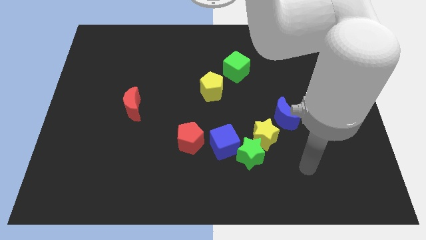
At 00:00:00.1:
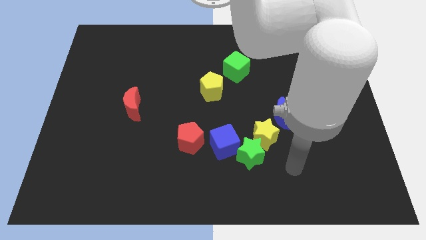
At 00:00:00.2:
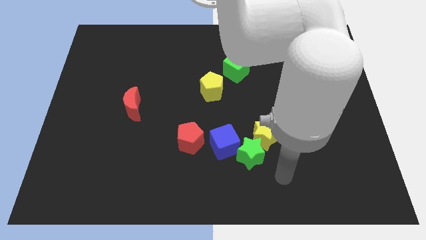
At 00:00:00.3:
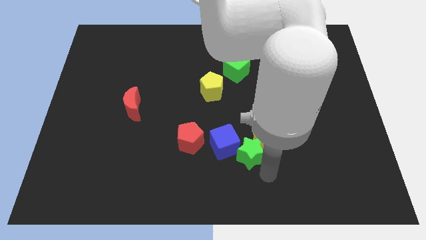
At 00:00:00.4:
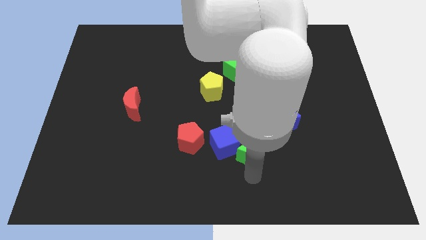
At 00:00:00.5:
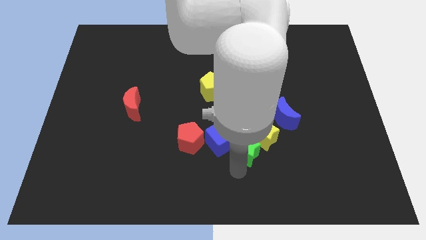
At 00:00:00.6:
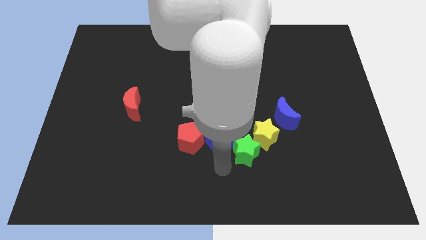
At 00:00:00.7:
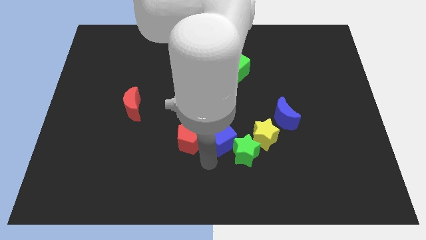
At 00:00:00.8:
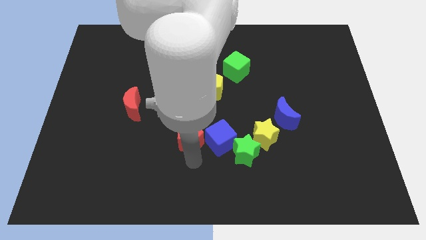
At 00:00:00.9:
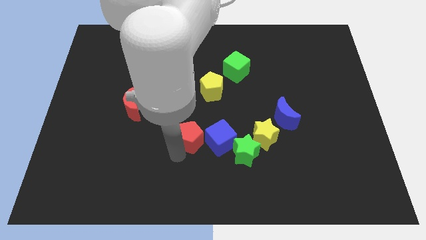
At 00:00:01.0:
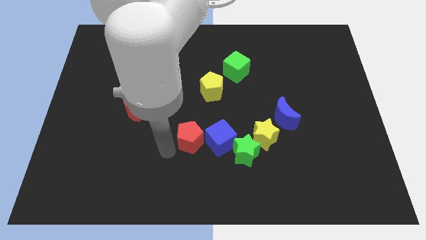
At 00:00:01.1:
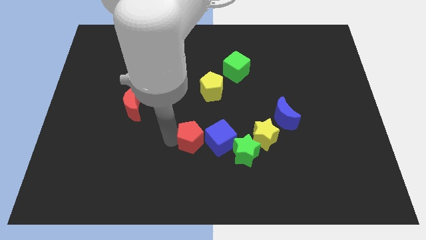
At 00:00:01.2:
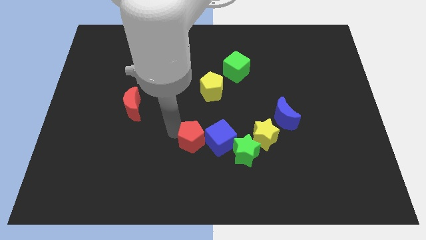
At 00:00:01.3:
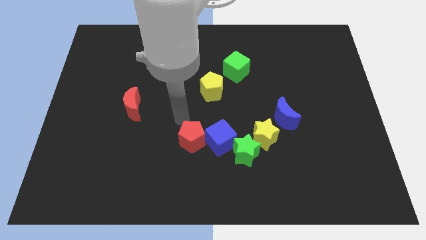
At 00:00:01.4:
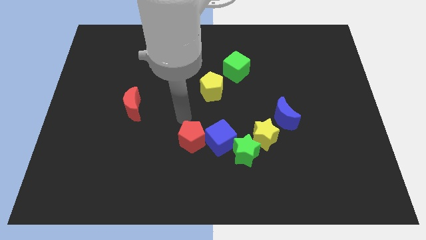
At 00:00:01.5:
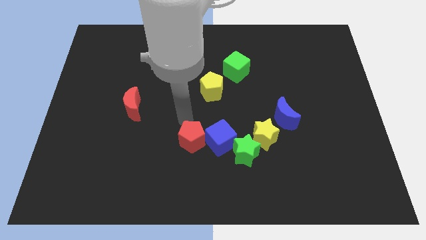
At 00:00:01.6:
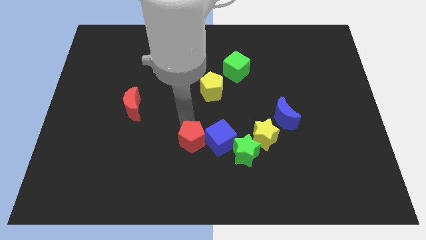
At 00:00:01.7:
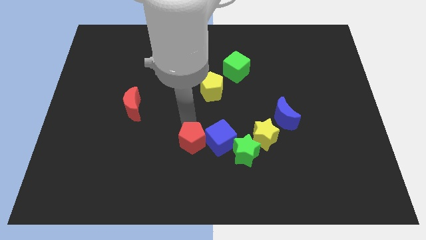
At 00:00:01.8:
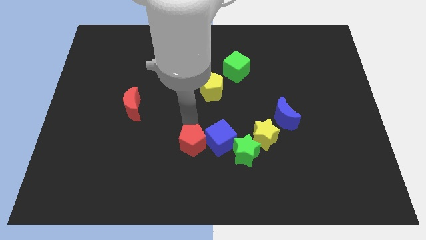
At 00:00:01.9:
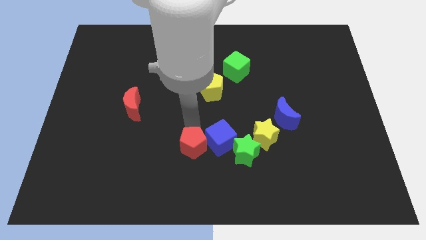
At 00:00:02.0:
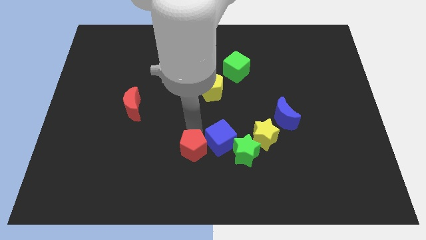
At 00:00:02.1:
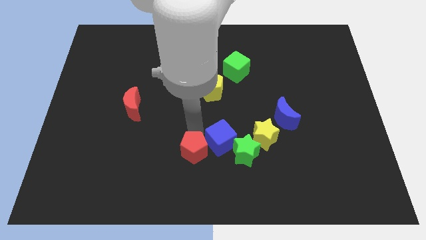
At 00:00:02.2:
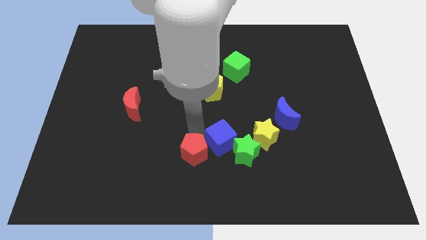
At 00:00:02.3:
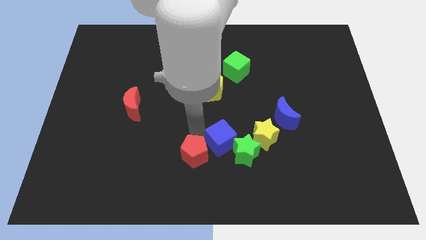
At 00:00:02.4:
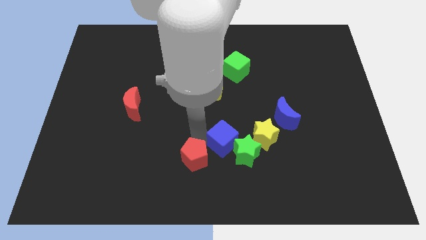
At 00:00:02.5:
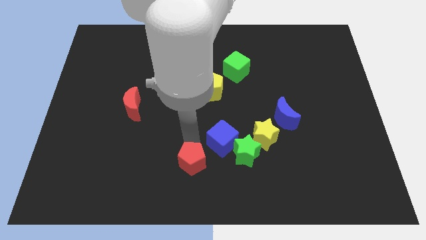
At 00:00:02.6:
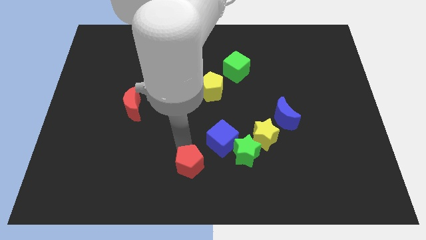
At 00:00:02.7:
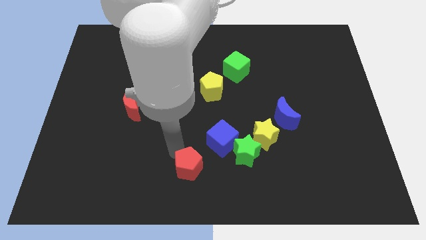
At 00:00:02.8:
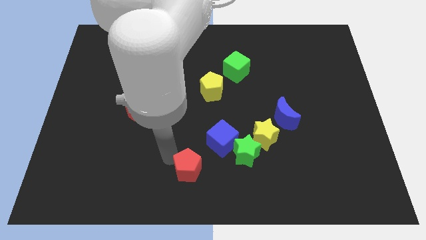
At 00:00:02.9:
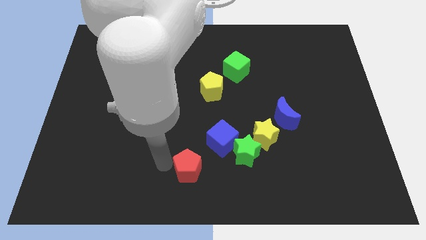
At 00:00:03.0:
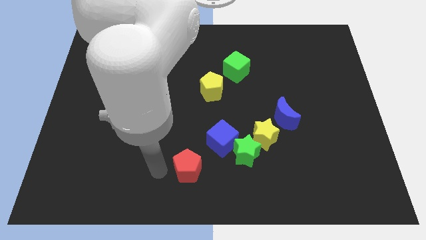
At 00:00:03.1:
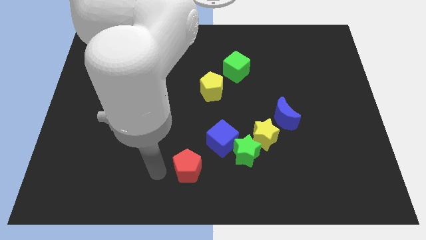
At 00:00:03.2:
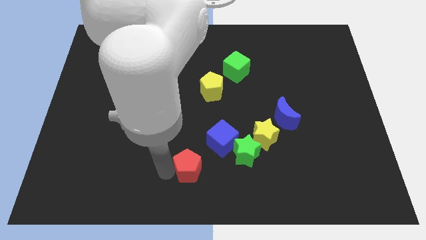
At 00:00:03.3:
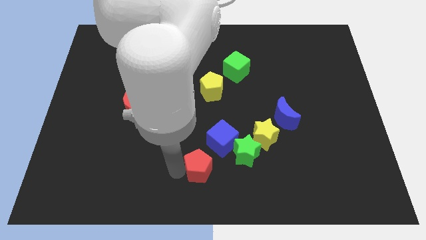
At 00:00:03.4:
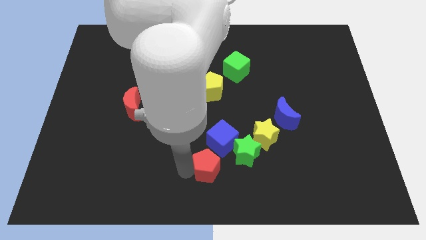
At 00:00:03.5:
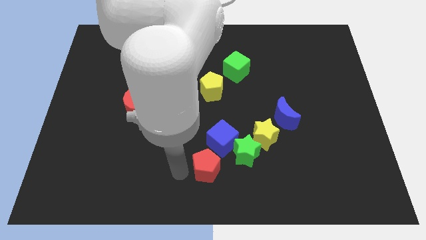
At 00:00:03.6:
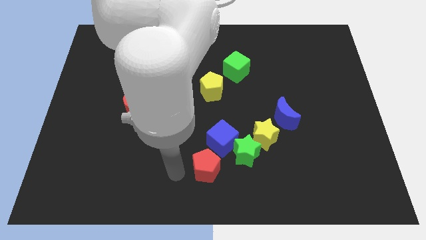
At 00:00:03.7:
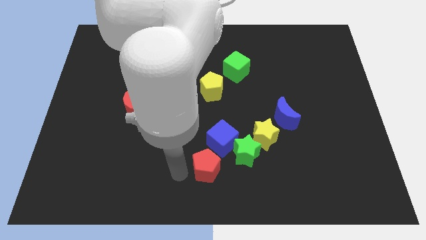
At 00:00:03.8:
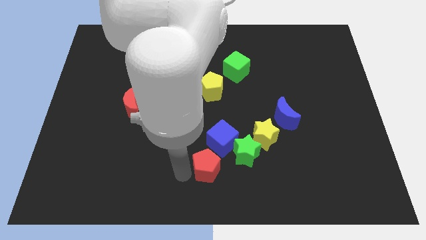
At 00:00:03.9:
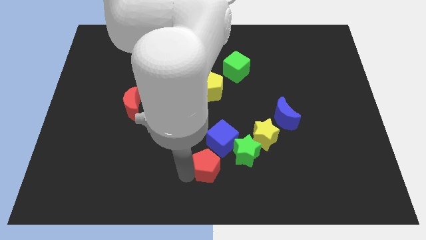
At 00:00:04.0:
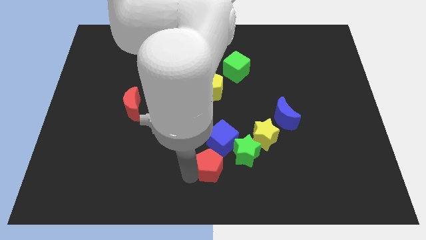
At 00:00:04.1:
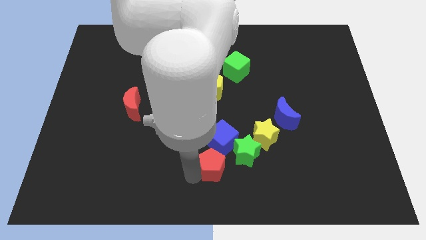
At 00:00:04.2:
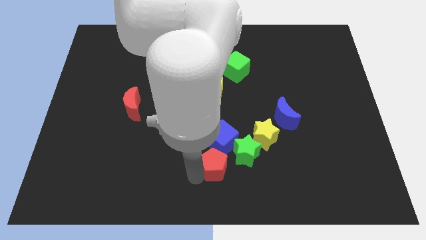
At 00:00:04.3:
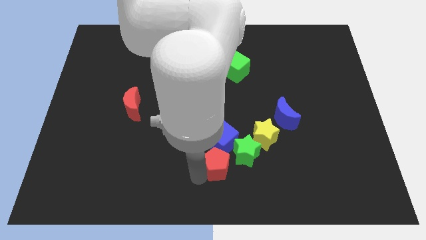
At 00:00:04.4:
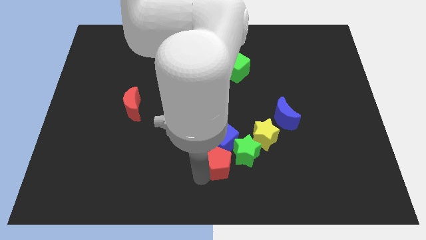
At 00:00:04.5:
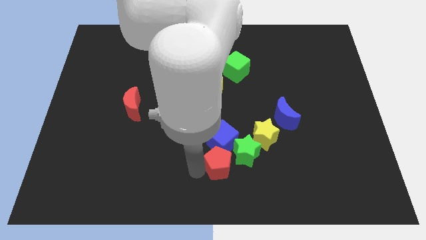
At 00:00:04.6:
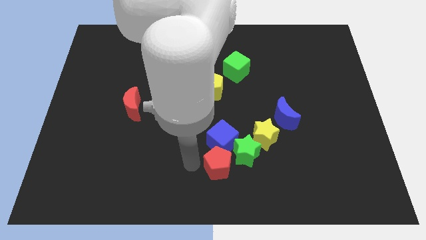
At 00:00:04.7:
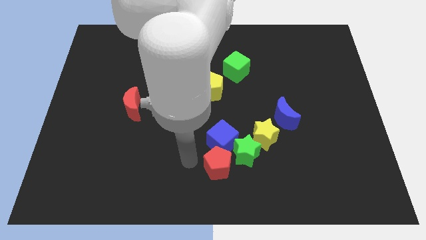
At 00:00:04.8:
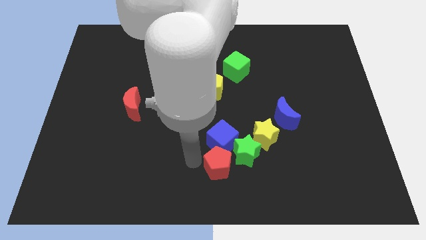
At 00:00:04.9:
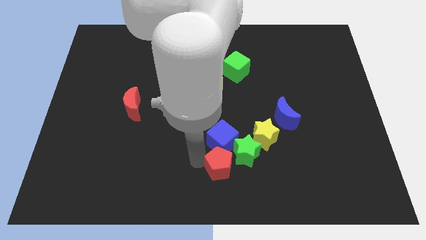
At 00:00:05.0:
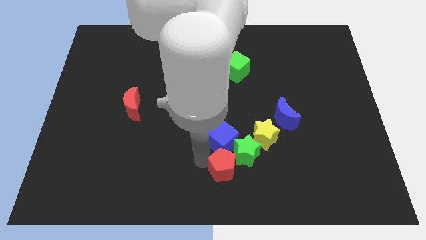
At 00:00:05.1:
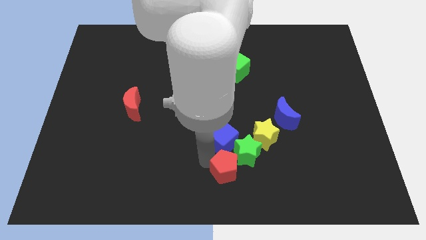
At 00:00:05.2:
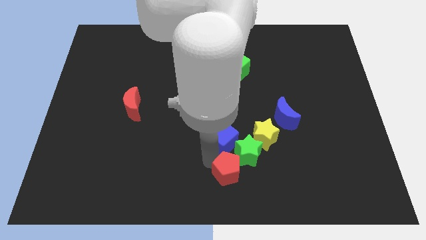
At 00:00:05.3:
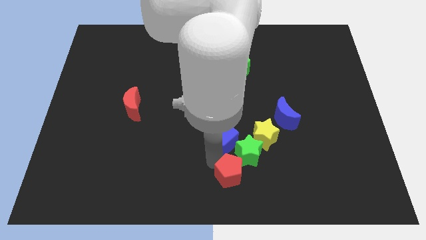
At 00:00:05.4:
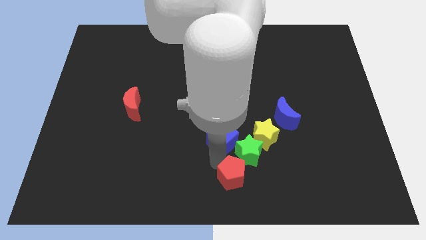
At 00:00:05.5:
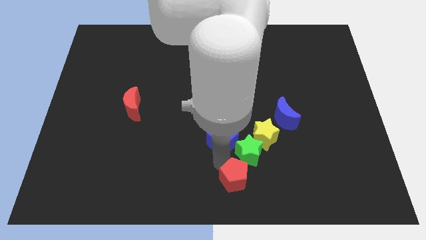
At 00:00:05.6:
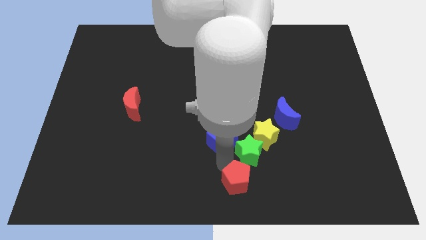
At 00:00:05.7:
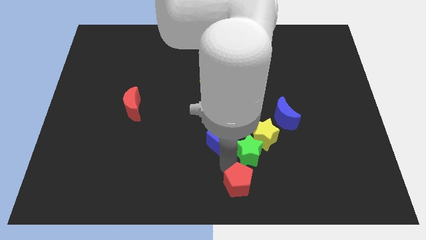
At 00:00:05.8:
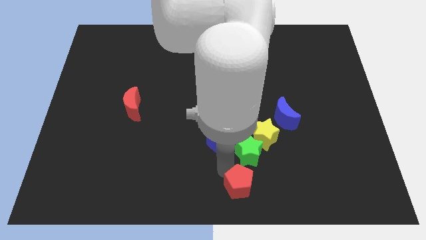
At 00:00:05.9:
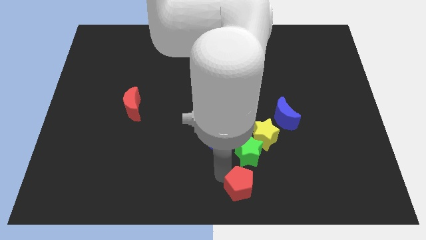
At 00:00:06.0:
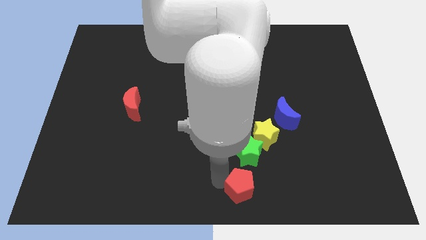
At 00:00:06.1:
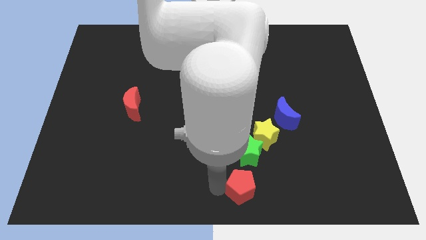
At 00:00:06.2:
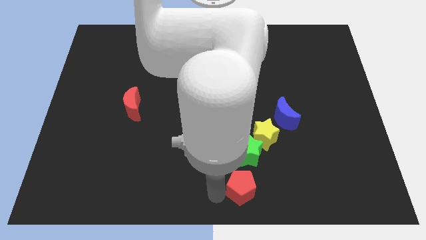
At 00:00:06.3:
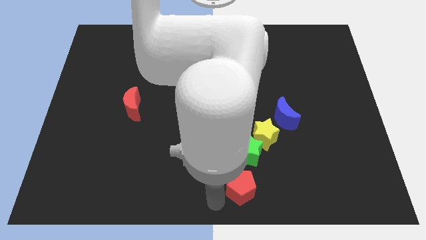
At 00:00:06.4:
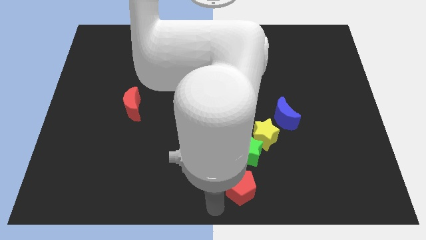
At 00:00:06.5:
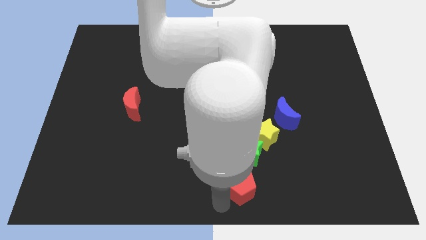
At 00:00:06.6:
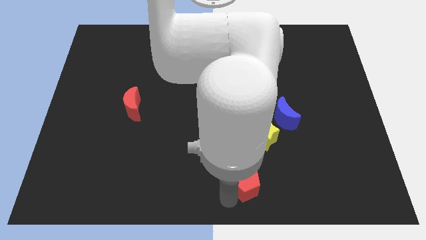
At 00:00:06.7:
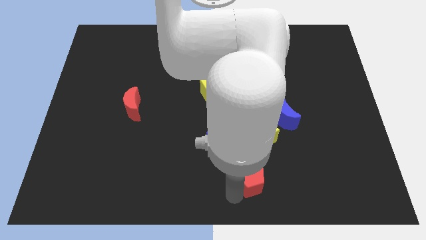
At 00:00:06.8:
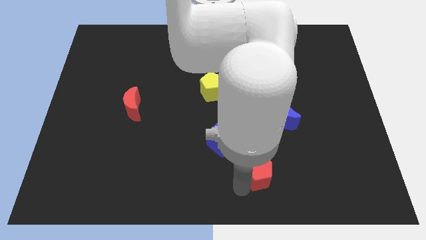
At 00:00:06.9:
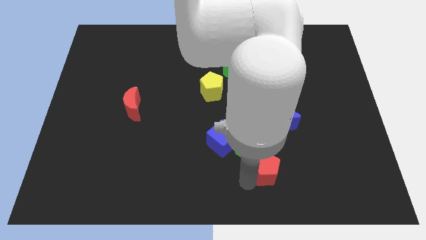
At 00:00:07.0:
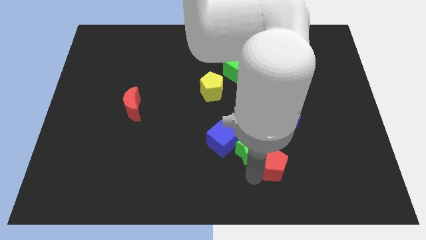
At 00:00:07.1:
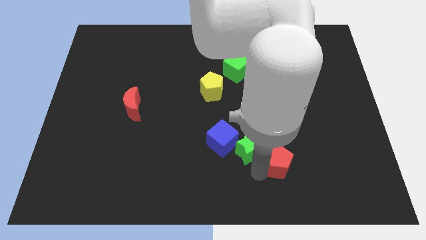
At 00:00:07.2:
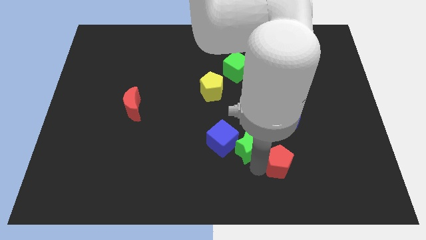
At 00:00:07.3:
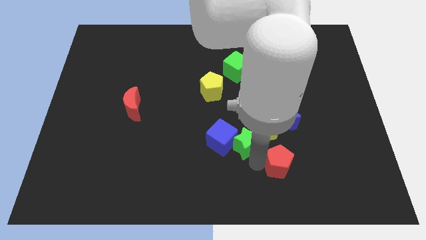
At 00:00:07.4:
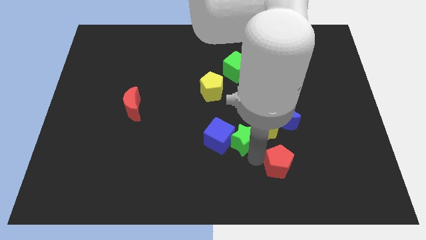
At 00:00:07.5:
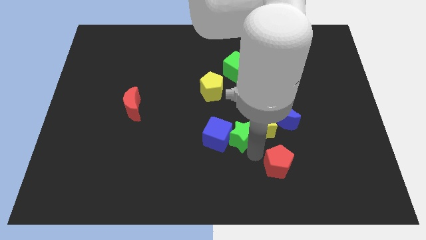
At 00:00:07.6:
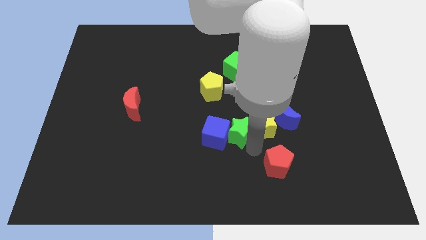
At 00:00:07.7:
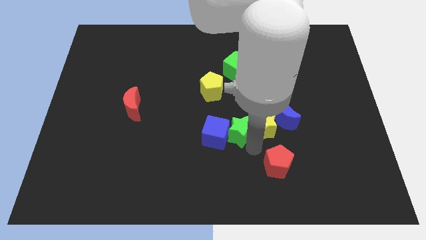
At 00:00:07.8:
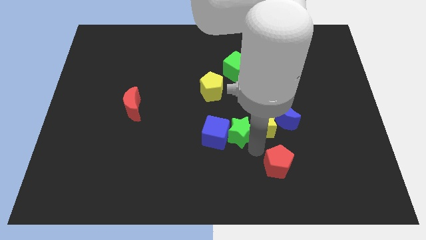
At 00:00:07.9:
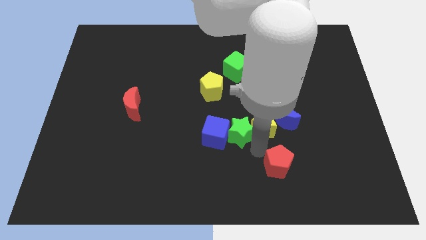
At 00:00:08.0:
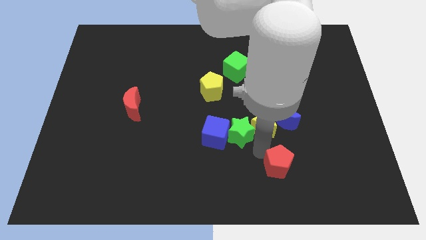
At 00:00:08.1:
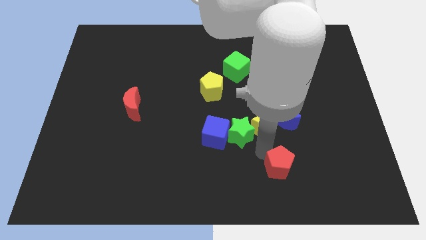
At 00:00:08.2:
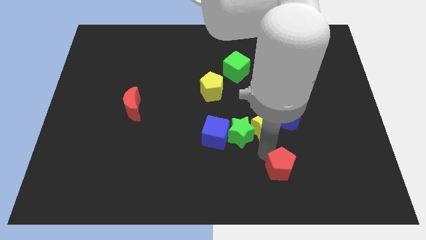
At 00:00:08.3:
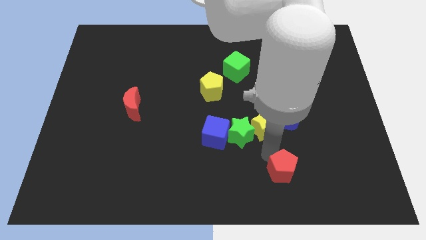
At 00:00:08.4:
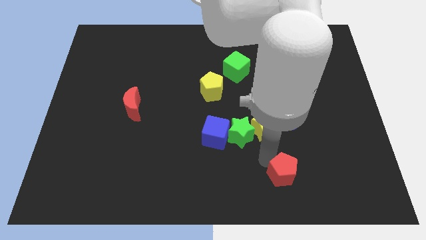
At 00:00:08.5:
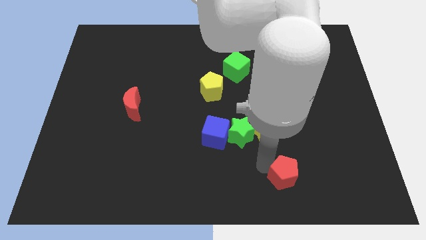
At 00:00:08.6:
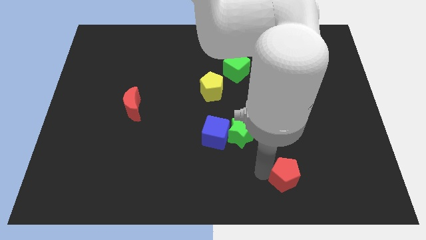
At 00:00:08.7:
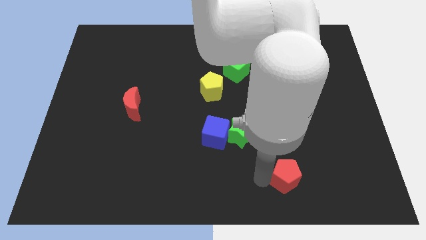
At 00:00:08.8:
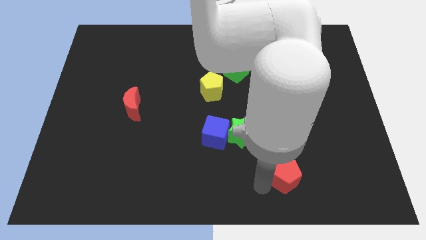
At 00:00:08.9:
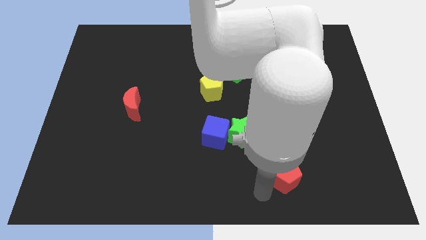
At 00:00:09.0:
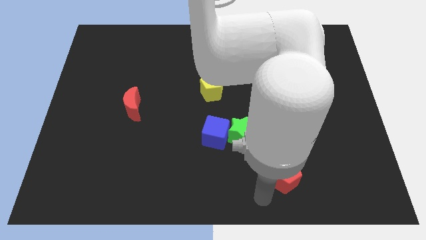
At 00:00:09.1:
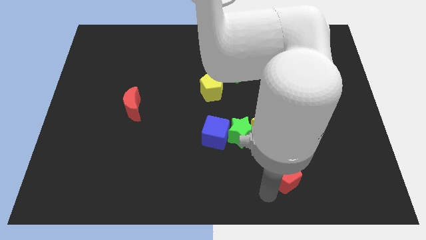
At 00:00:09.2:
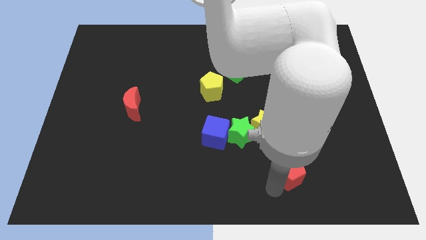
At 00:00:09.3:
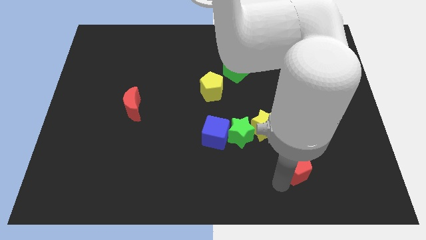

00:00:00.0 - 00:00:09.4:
slide the red pentagon to the right
